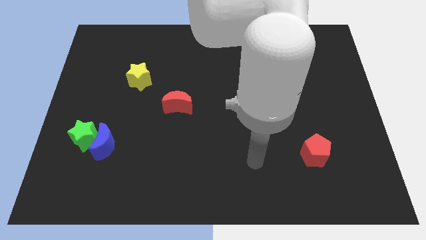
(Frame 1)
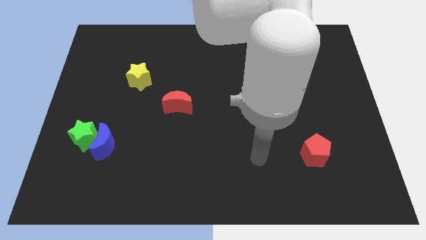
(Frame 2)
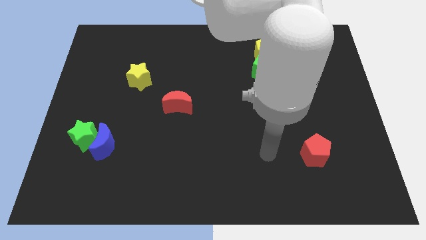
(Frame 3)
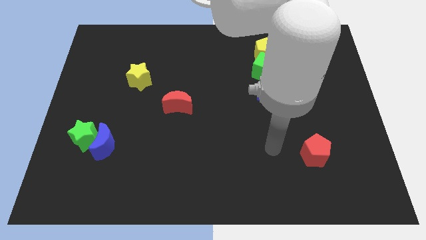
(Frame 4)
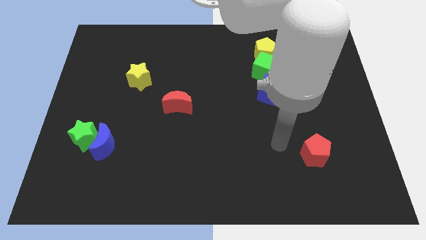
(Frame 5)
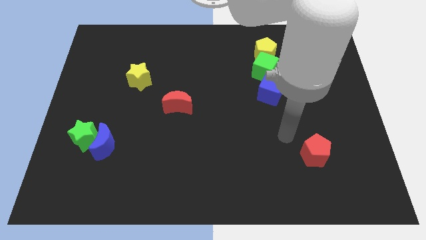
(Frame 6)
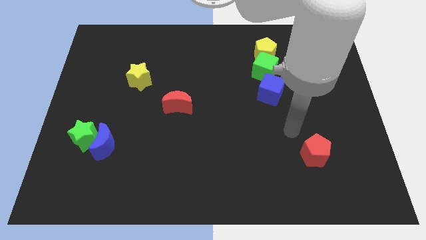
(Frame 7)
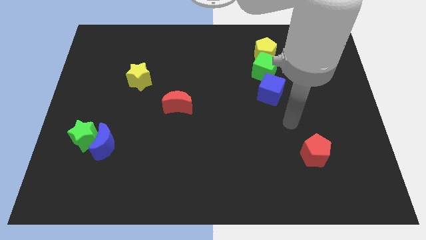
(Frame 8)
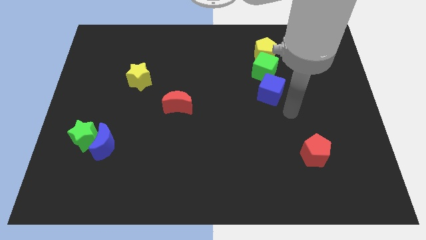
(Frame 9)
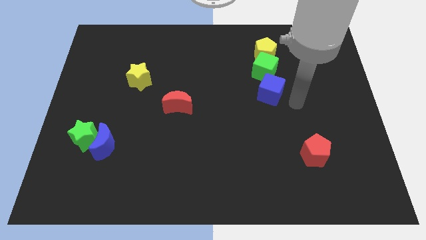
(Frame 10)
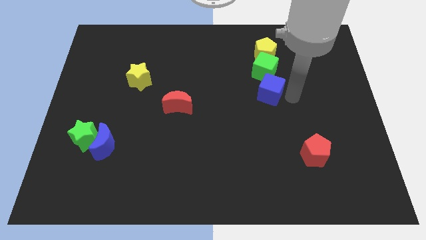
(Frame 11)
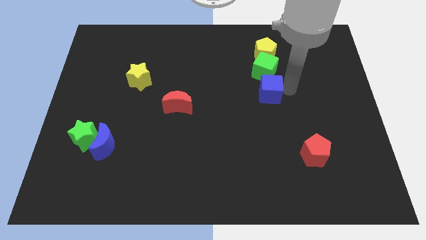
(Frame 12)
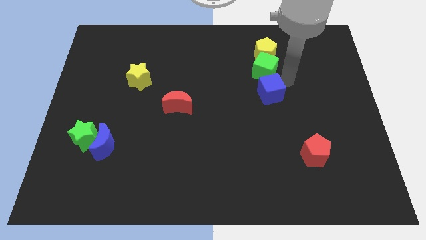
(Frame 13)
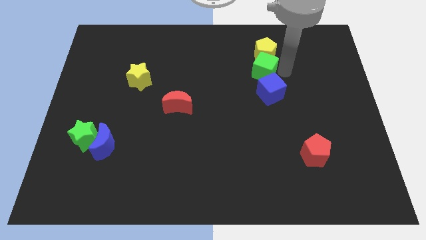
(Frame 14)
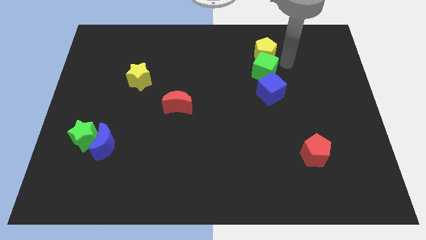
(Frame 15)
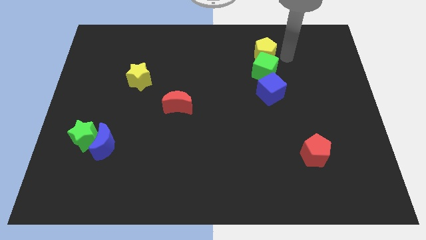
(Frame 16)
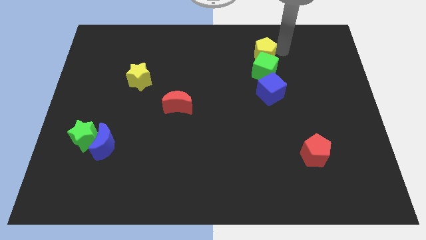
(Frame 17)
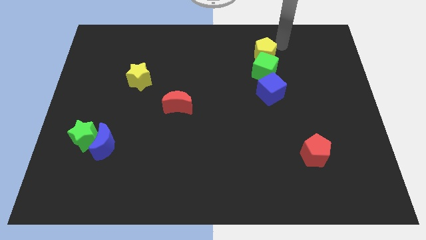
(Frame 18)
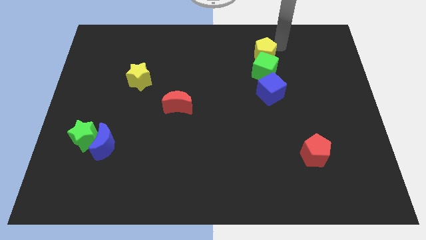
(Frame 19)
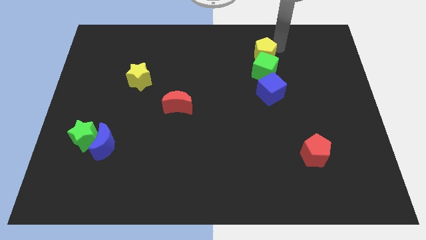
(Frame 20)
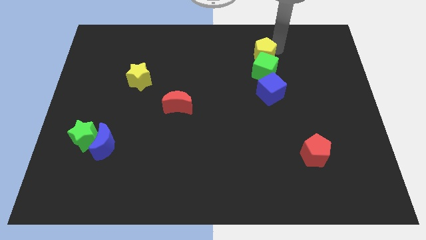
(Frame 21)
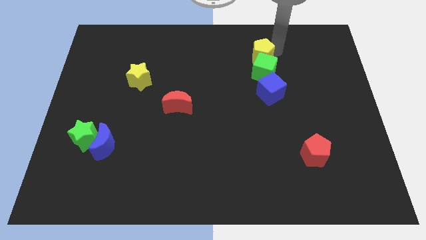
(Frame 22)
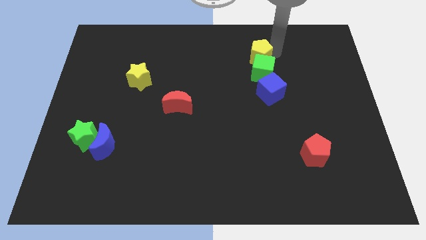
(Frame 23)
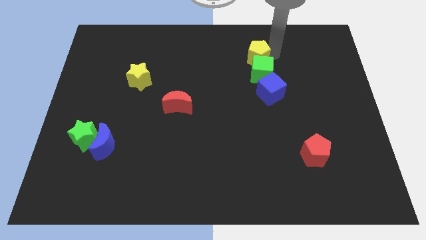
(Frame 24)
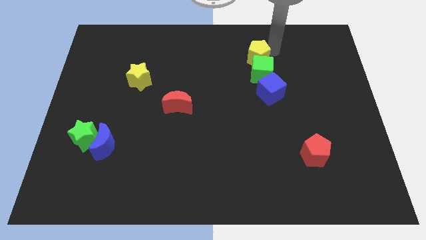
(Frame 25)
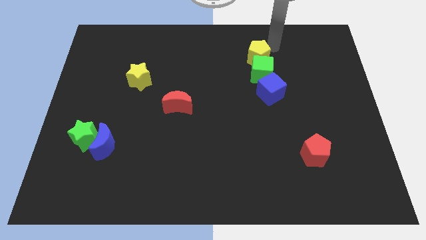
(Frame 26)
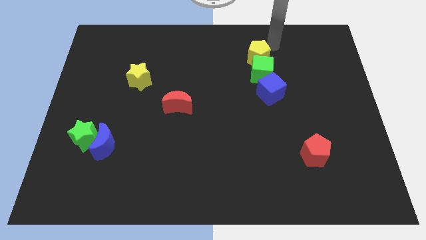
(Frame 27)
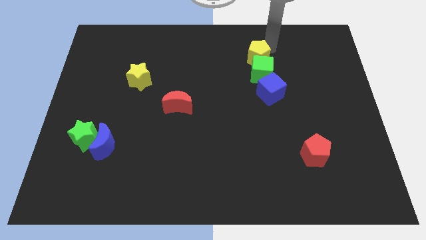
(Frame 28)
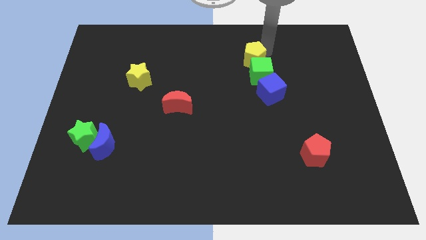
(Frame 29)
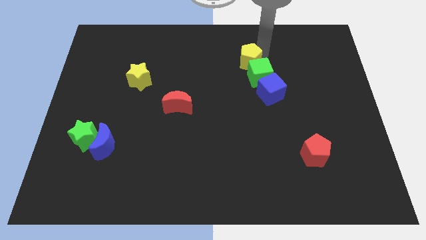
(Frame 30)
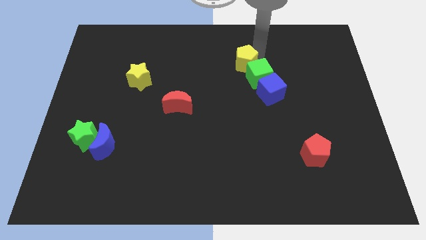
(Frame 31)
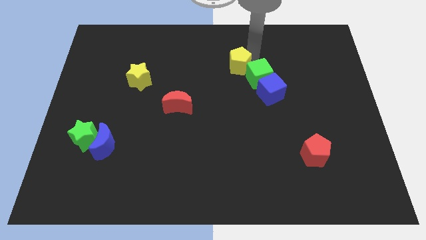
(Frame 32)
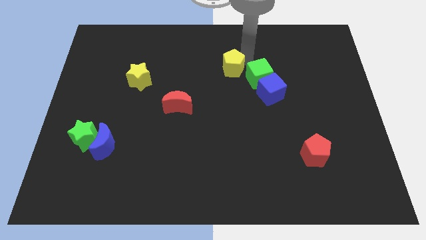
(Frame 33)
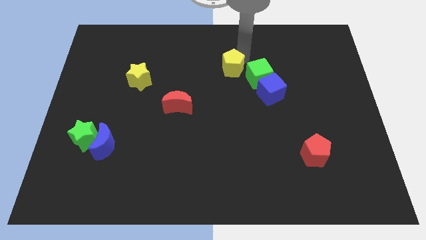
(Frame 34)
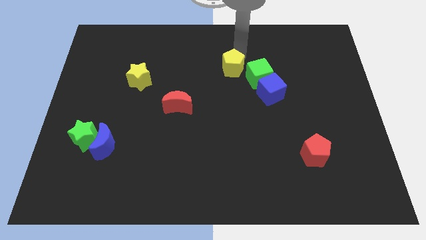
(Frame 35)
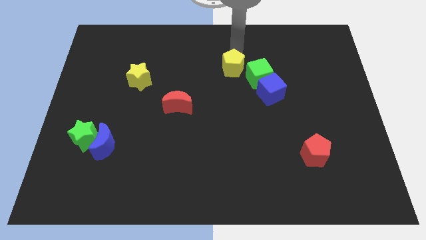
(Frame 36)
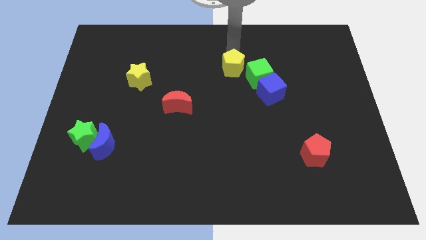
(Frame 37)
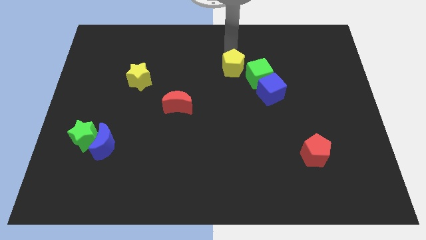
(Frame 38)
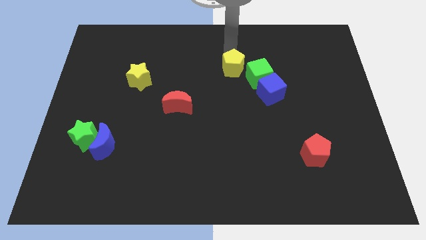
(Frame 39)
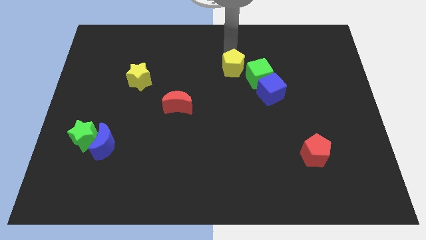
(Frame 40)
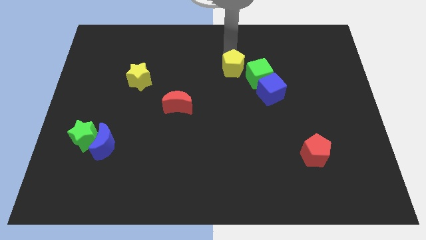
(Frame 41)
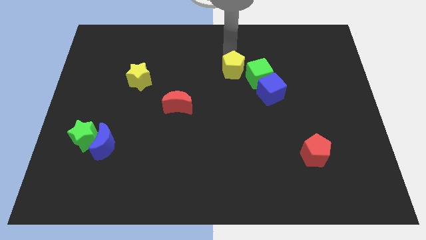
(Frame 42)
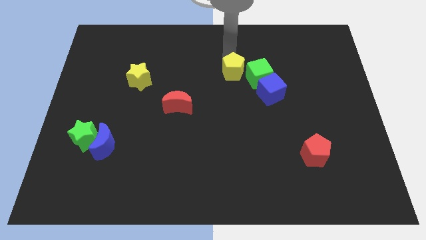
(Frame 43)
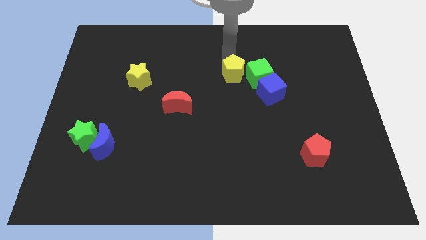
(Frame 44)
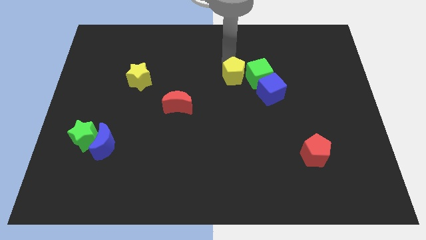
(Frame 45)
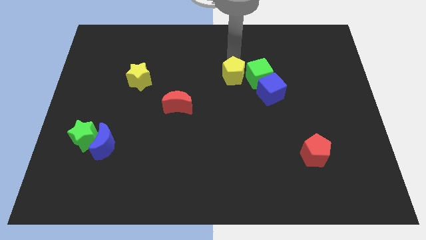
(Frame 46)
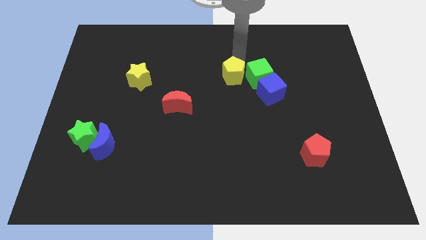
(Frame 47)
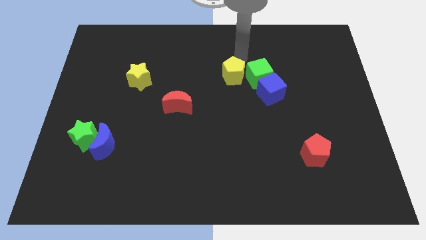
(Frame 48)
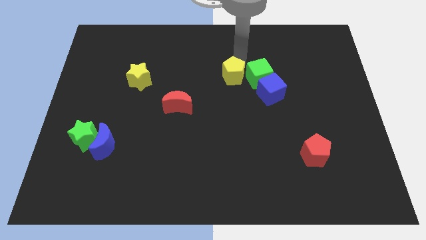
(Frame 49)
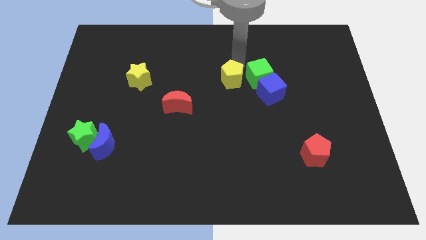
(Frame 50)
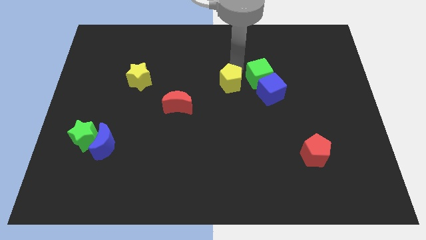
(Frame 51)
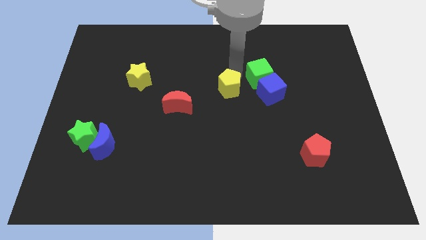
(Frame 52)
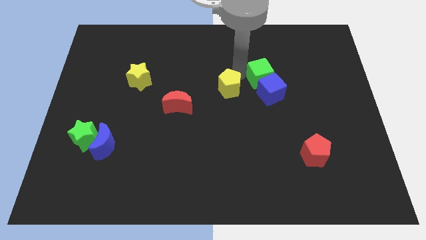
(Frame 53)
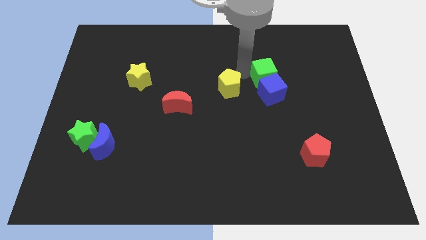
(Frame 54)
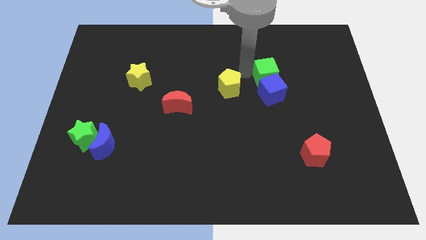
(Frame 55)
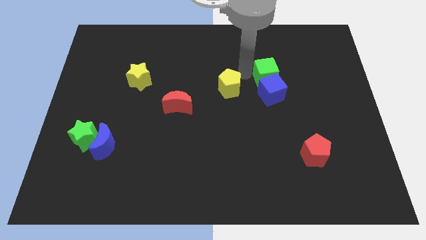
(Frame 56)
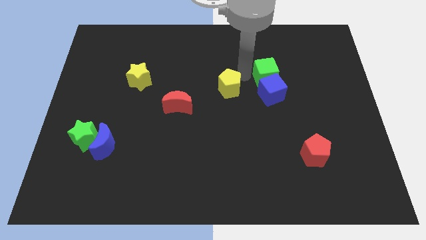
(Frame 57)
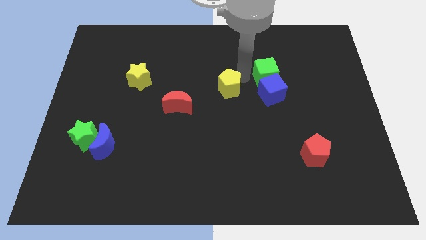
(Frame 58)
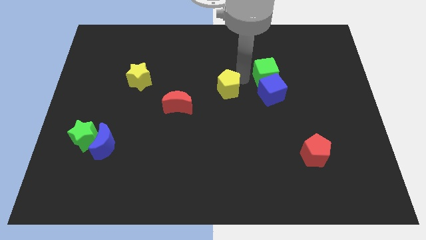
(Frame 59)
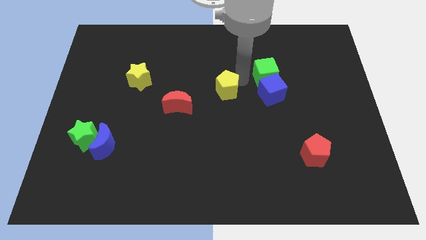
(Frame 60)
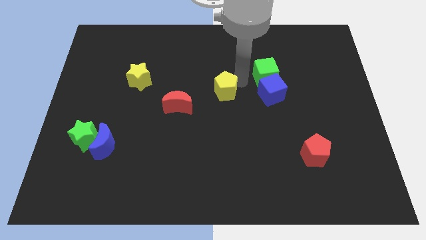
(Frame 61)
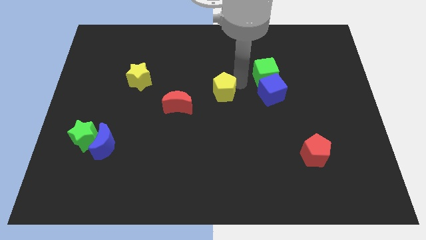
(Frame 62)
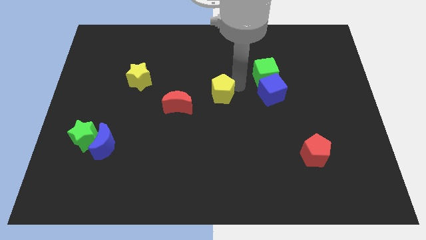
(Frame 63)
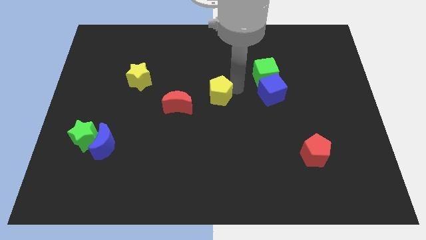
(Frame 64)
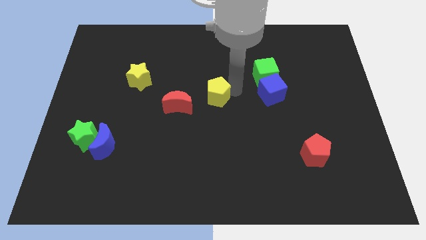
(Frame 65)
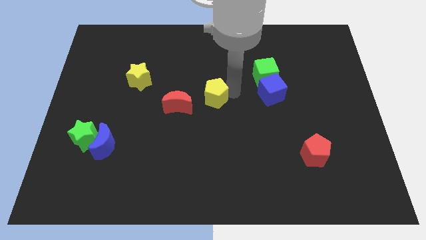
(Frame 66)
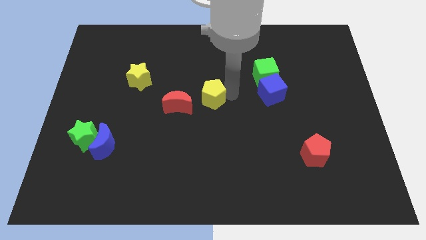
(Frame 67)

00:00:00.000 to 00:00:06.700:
move the yellow pentagon down and then to the left

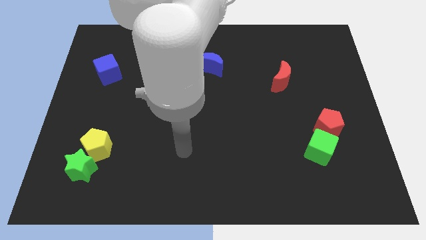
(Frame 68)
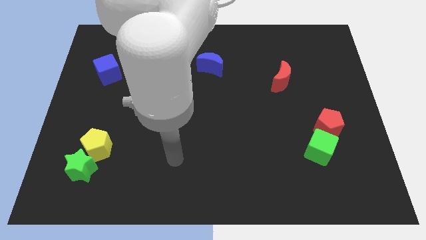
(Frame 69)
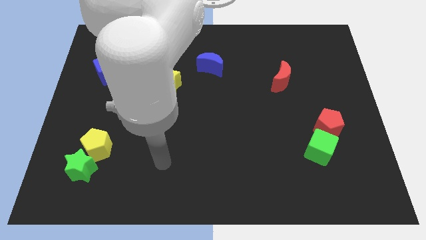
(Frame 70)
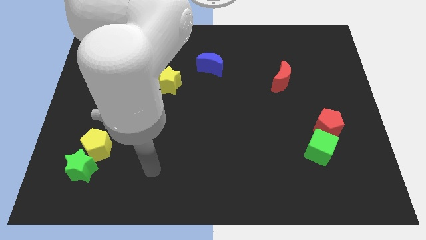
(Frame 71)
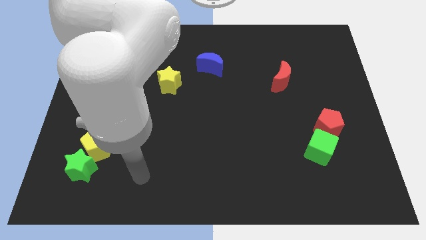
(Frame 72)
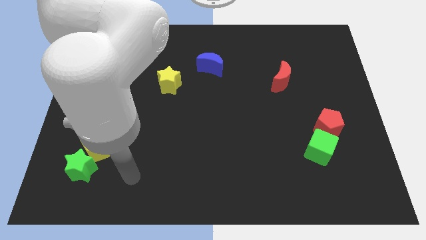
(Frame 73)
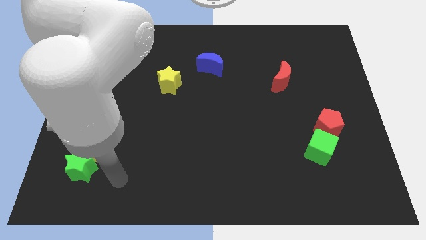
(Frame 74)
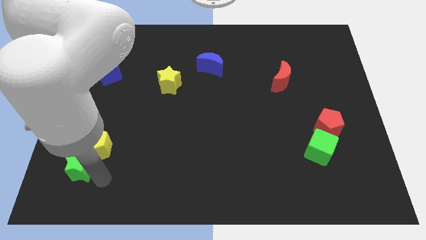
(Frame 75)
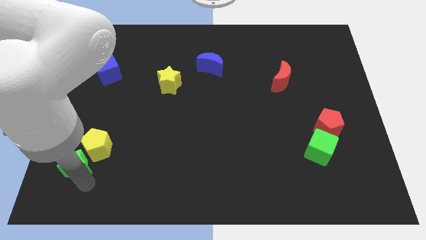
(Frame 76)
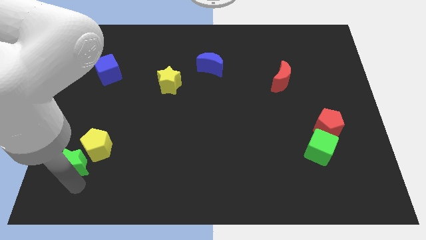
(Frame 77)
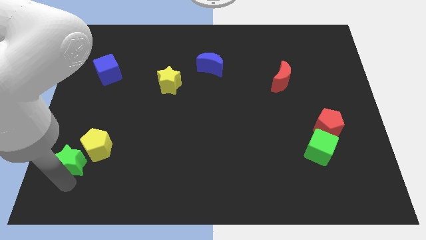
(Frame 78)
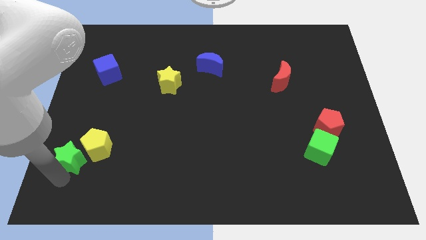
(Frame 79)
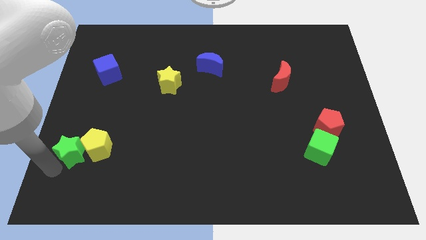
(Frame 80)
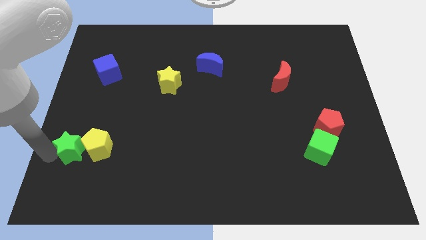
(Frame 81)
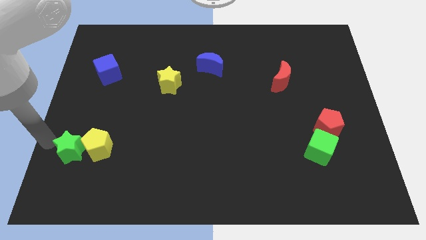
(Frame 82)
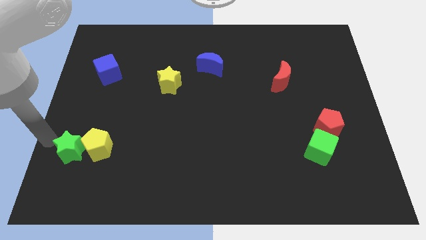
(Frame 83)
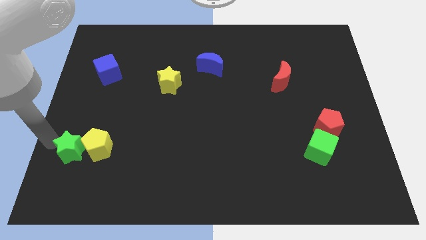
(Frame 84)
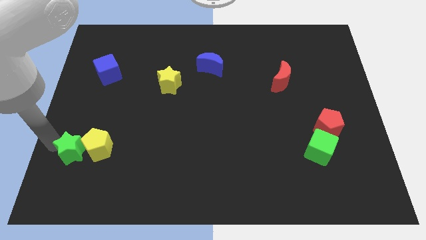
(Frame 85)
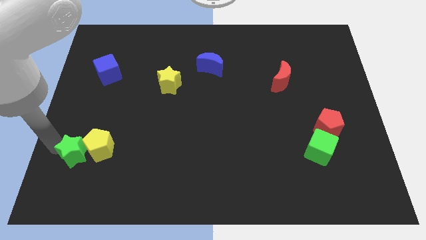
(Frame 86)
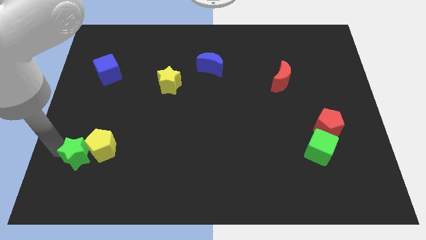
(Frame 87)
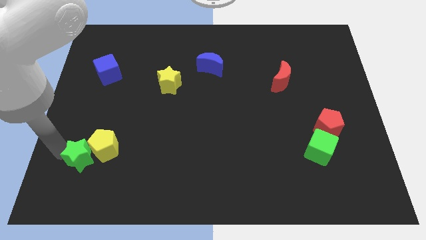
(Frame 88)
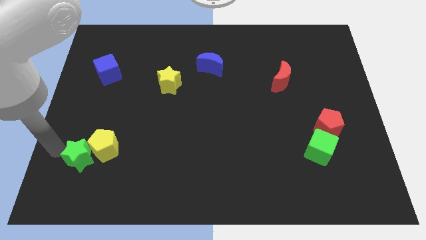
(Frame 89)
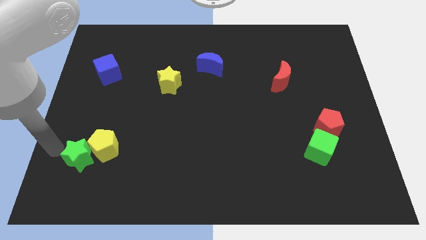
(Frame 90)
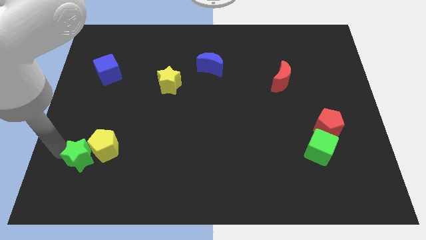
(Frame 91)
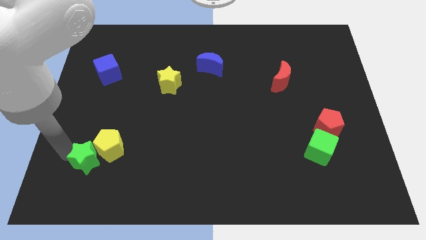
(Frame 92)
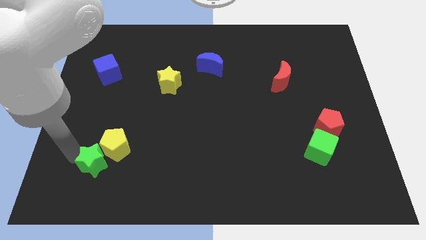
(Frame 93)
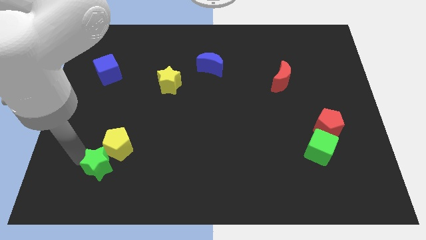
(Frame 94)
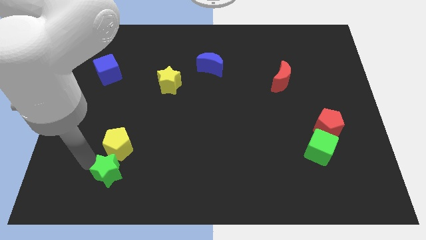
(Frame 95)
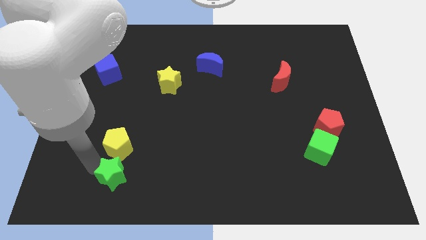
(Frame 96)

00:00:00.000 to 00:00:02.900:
push the green star a little right
